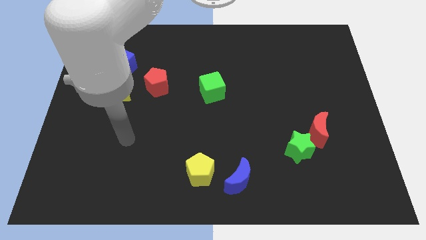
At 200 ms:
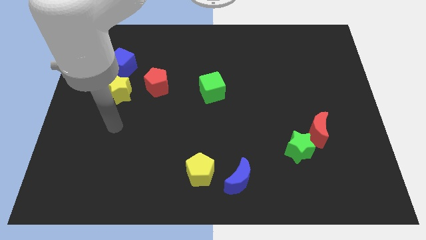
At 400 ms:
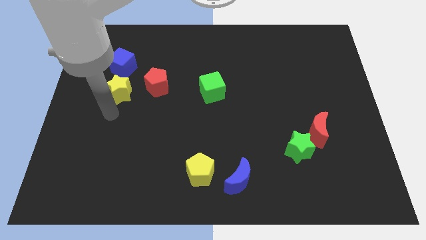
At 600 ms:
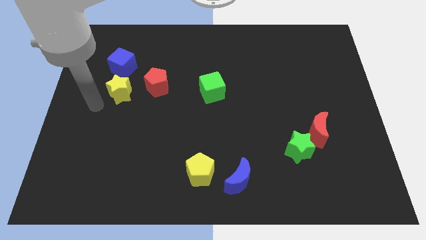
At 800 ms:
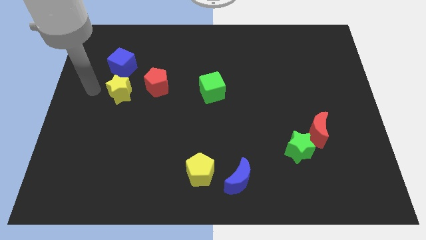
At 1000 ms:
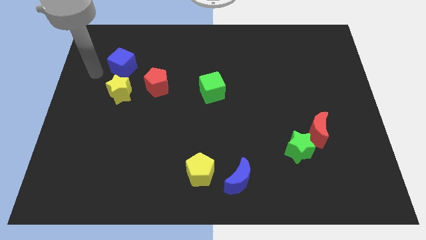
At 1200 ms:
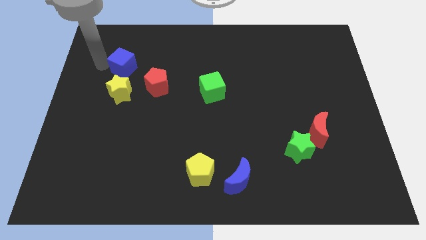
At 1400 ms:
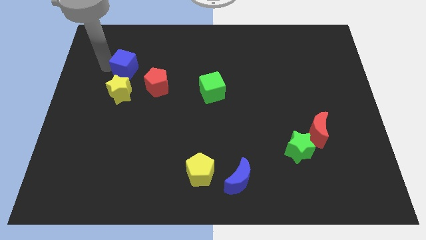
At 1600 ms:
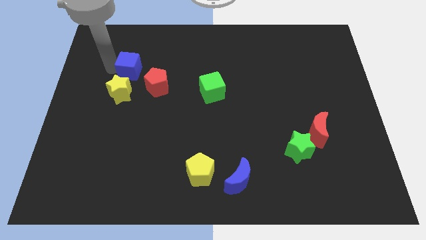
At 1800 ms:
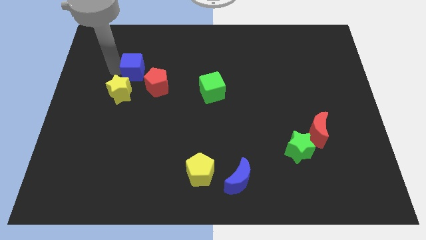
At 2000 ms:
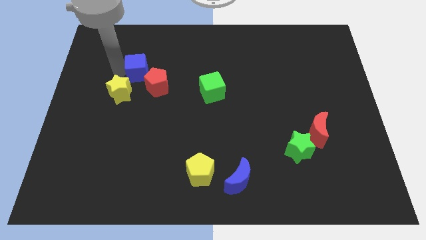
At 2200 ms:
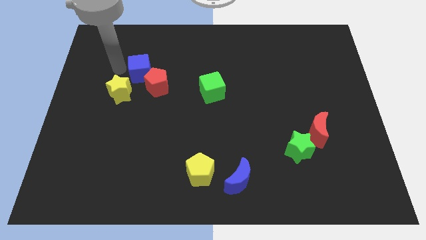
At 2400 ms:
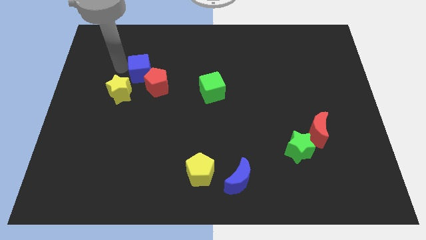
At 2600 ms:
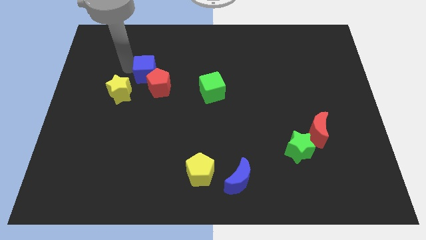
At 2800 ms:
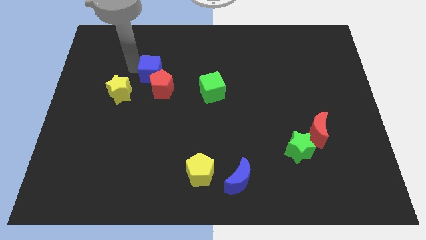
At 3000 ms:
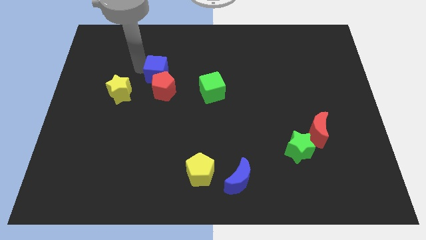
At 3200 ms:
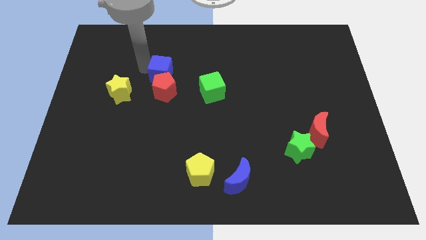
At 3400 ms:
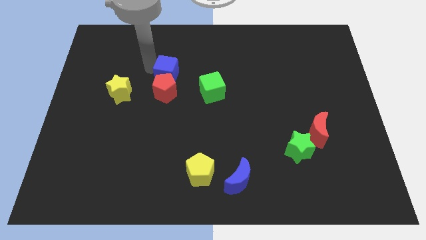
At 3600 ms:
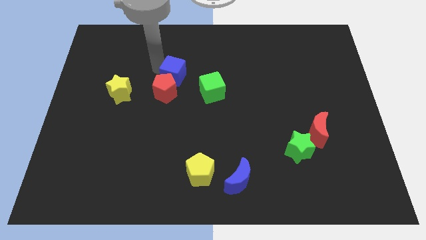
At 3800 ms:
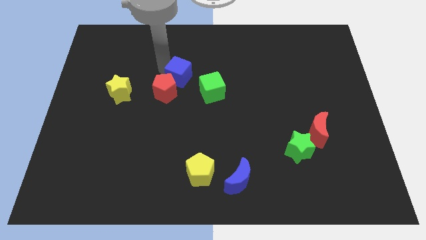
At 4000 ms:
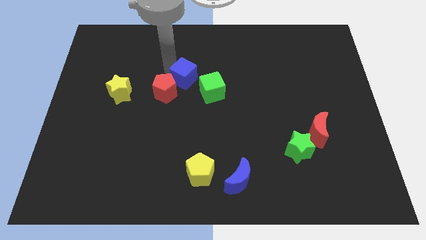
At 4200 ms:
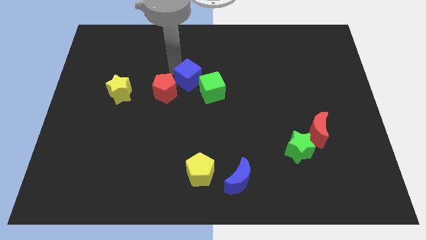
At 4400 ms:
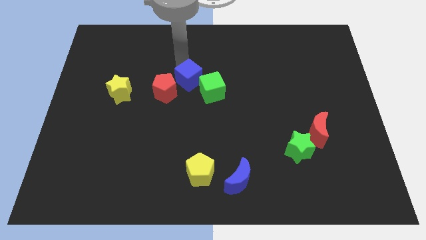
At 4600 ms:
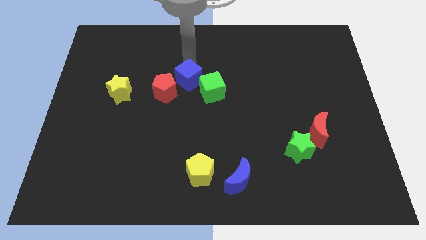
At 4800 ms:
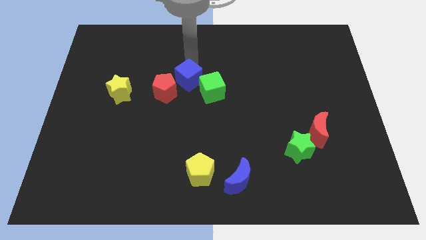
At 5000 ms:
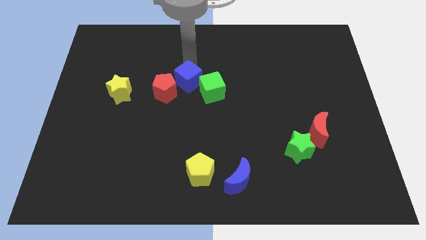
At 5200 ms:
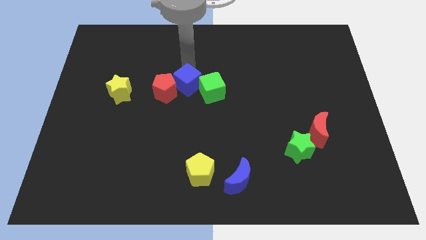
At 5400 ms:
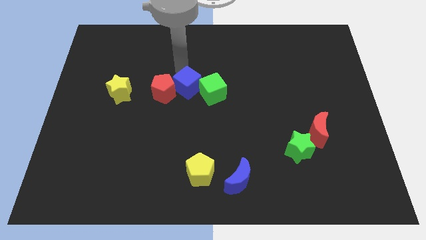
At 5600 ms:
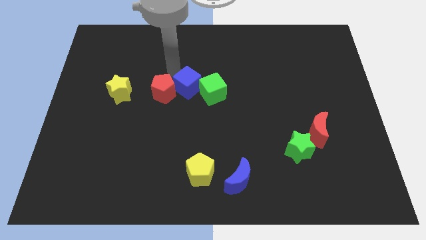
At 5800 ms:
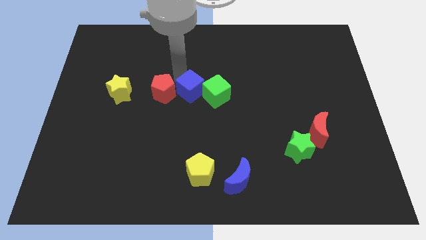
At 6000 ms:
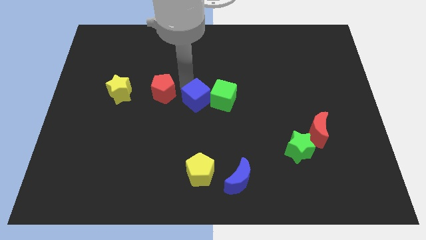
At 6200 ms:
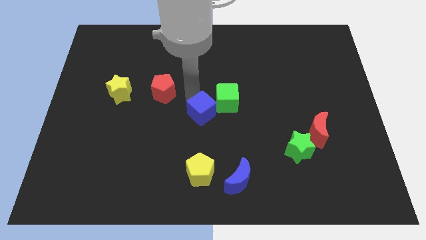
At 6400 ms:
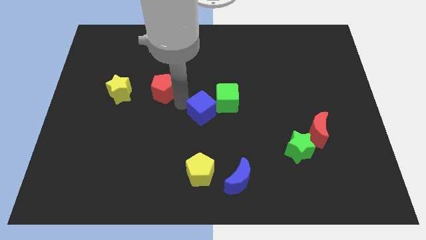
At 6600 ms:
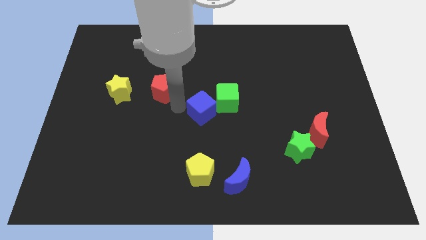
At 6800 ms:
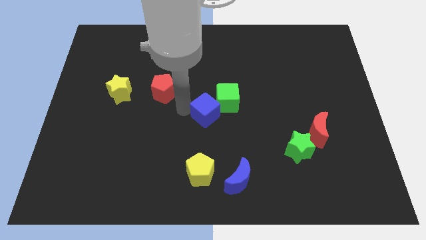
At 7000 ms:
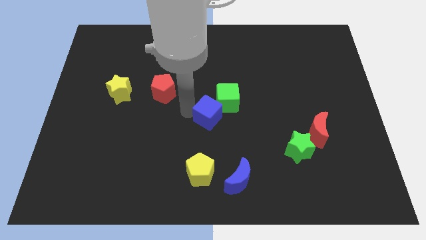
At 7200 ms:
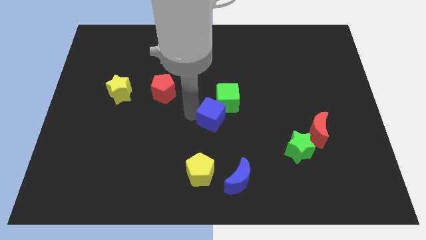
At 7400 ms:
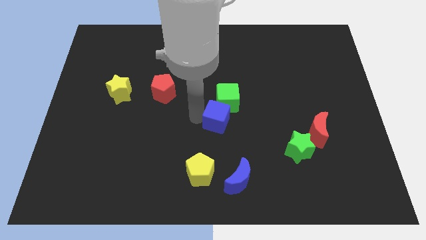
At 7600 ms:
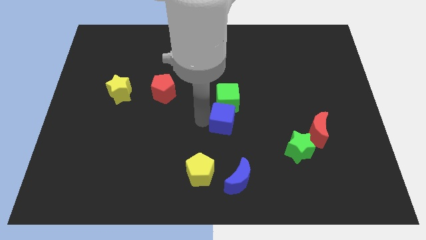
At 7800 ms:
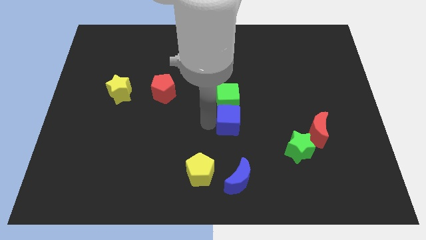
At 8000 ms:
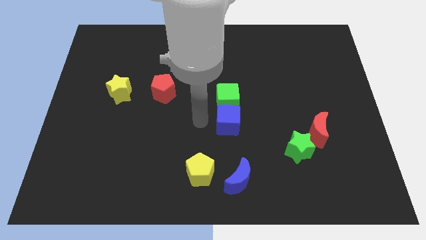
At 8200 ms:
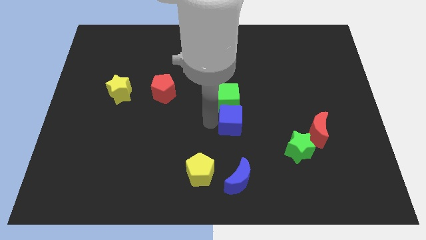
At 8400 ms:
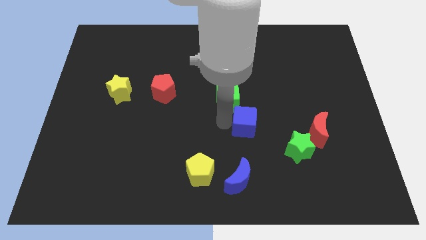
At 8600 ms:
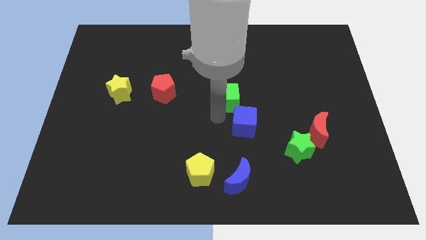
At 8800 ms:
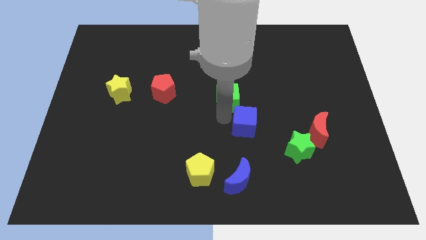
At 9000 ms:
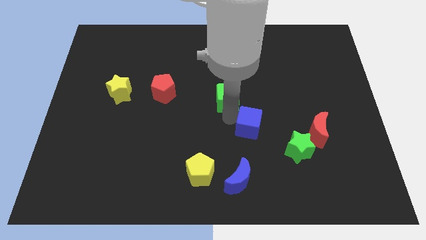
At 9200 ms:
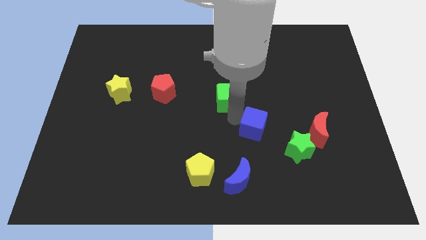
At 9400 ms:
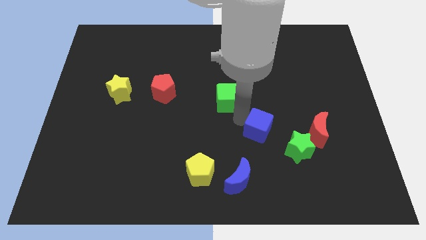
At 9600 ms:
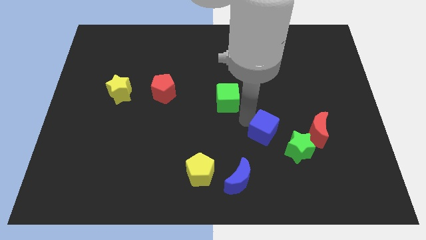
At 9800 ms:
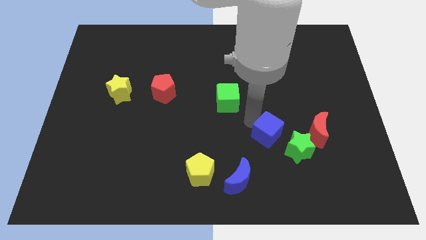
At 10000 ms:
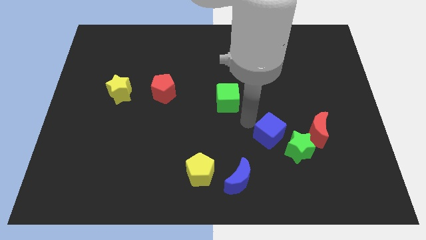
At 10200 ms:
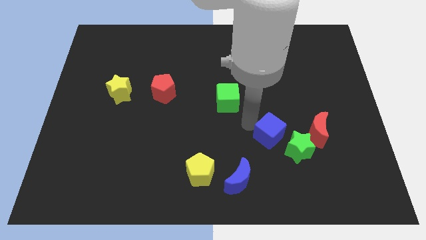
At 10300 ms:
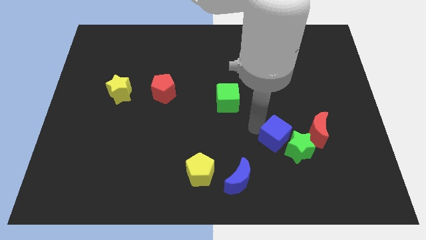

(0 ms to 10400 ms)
move the blue cube next to the green star

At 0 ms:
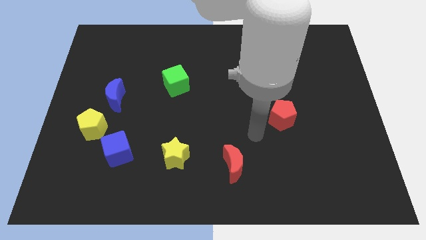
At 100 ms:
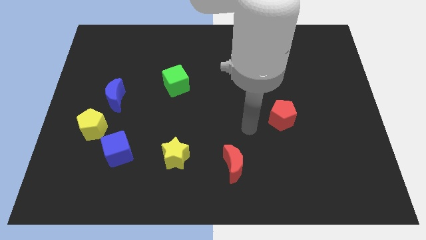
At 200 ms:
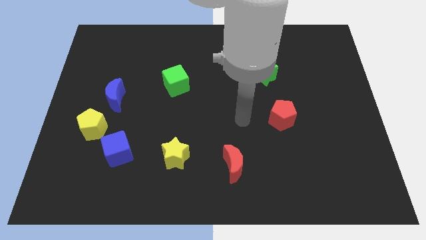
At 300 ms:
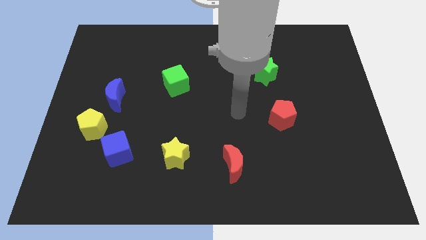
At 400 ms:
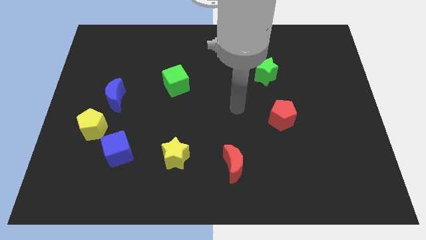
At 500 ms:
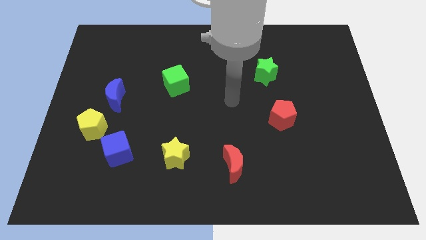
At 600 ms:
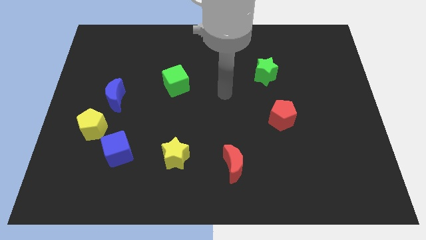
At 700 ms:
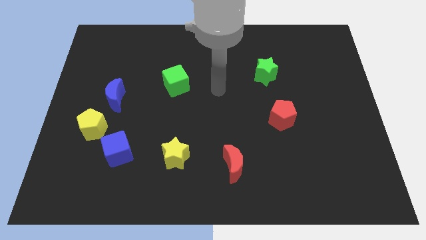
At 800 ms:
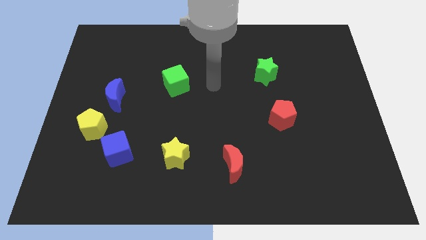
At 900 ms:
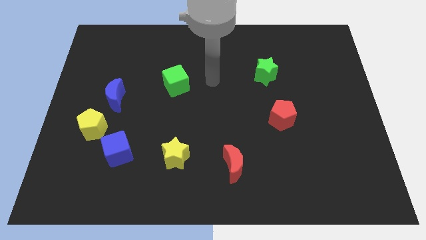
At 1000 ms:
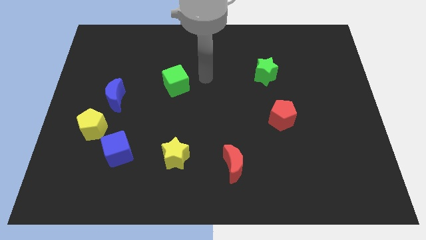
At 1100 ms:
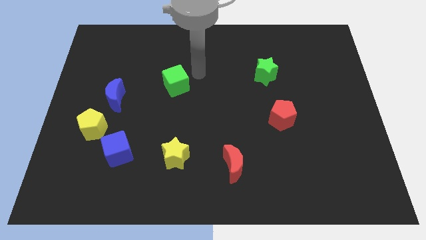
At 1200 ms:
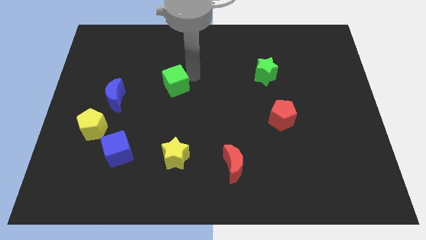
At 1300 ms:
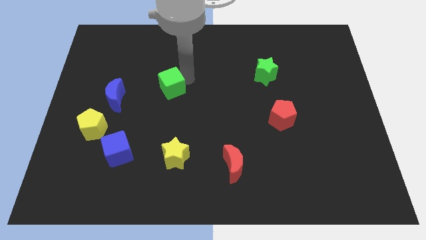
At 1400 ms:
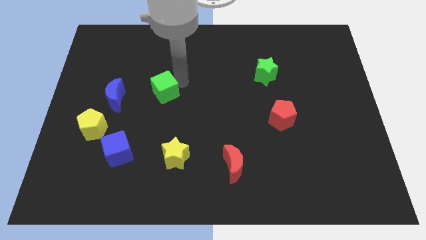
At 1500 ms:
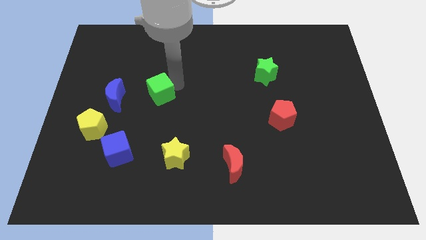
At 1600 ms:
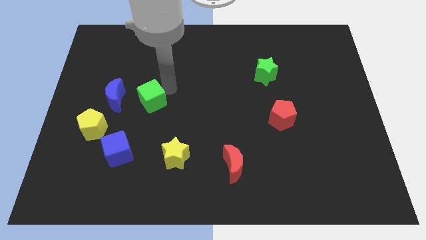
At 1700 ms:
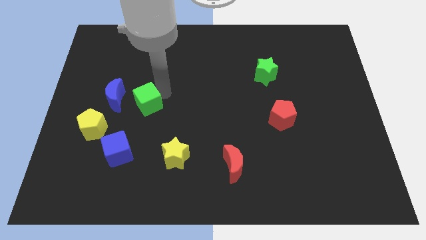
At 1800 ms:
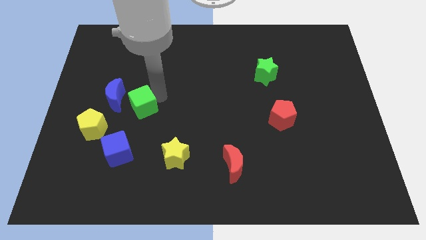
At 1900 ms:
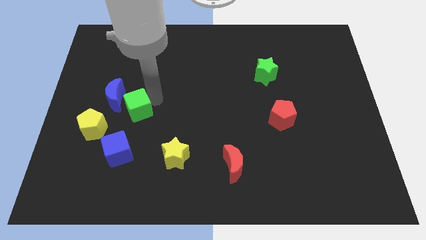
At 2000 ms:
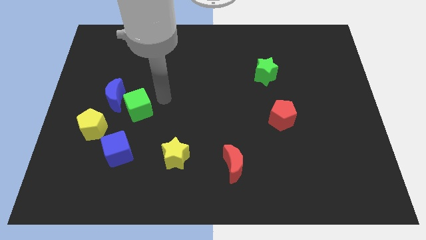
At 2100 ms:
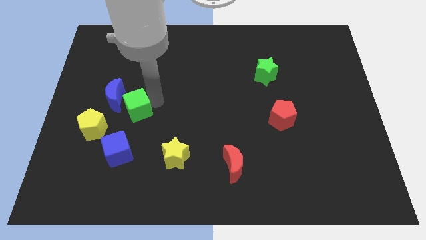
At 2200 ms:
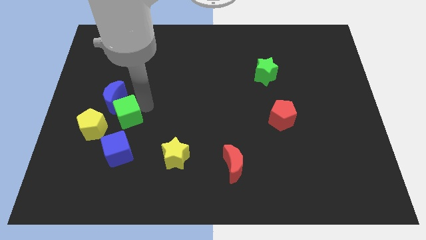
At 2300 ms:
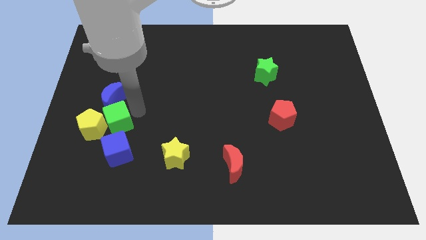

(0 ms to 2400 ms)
put the green cube to the yellow pentagon

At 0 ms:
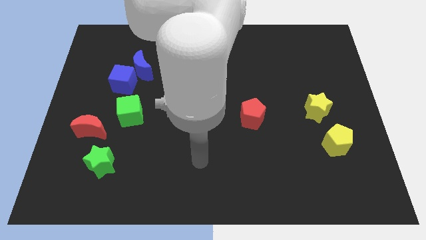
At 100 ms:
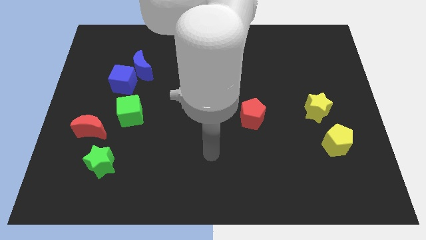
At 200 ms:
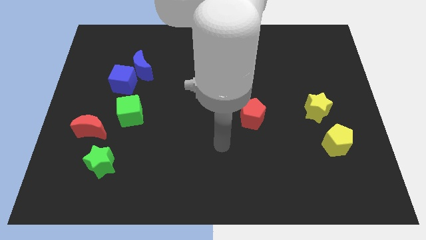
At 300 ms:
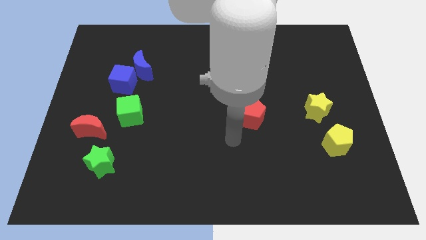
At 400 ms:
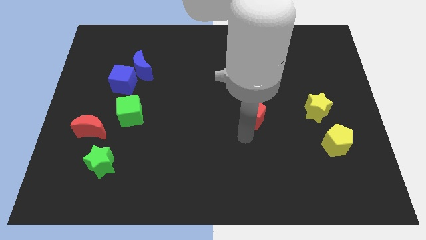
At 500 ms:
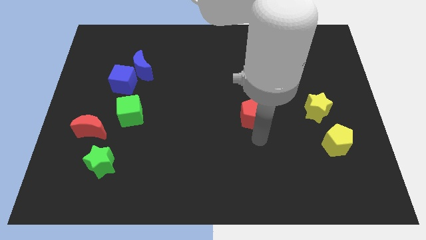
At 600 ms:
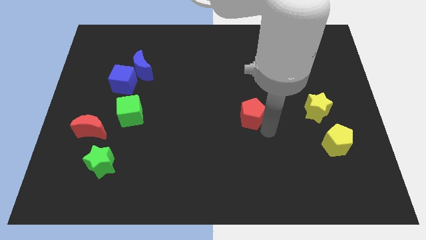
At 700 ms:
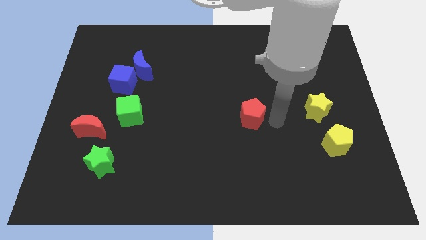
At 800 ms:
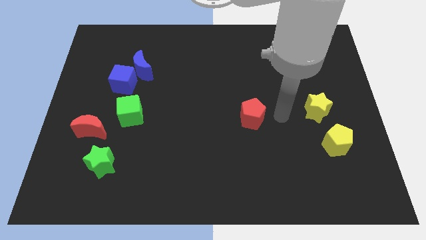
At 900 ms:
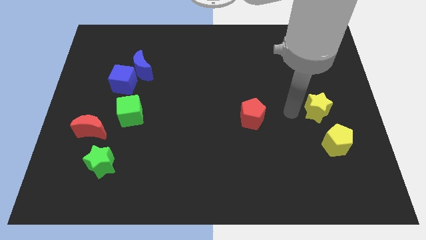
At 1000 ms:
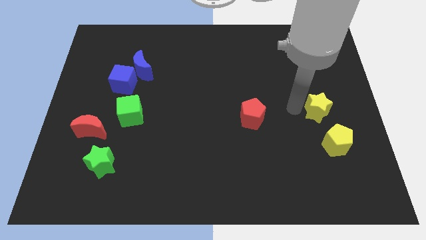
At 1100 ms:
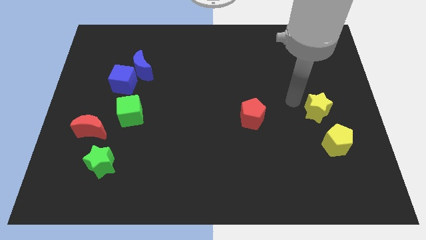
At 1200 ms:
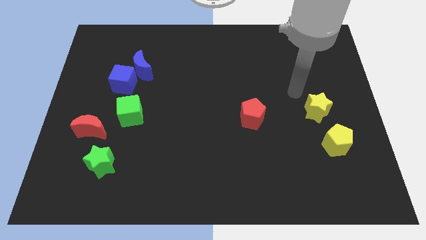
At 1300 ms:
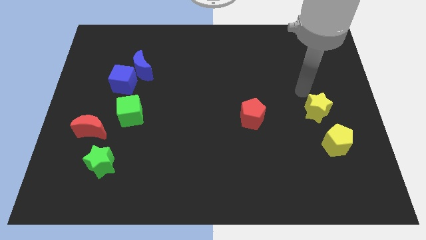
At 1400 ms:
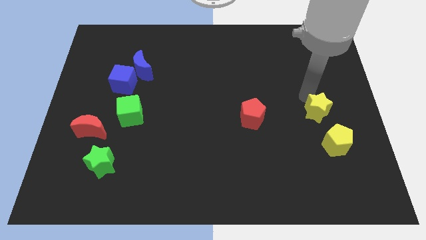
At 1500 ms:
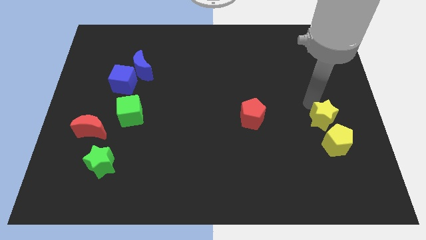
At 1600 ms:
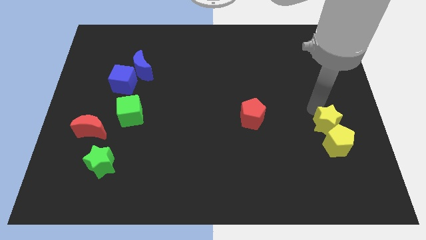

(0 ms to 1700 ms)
put the yellow star to the yellow pentagon
